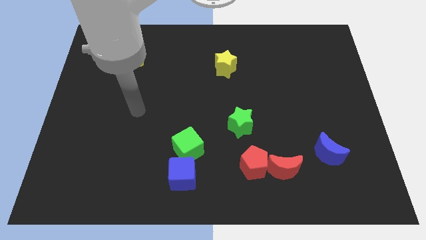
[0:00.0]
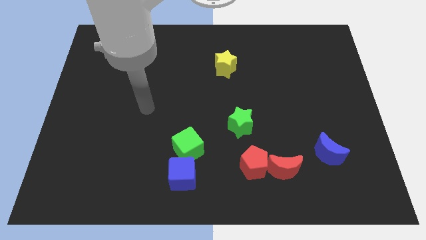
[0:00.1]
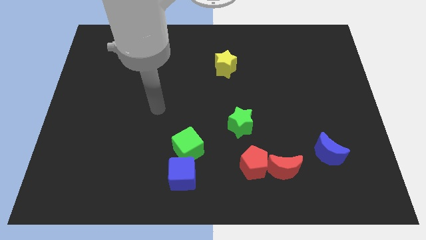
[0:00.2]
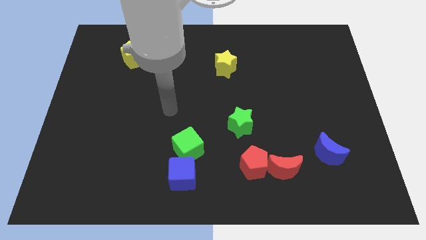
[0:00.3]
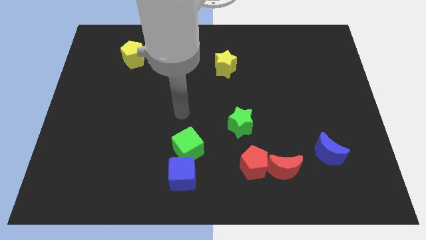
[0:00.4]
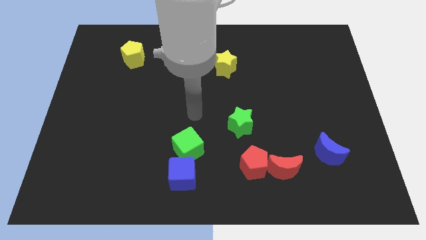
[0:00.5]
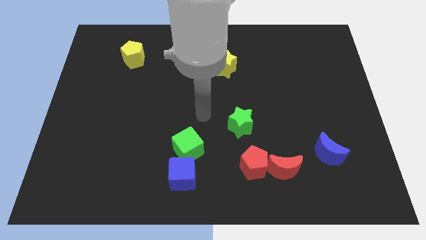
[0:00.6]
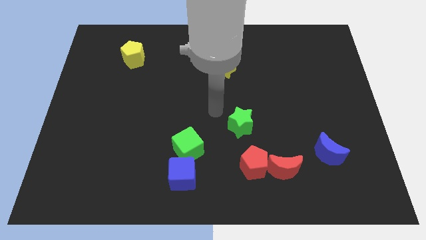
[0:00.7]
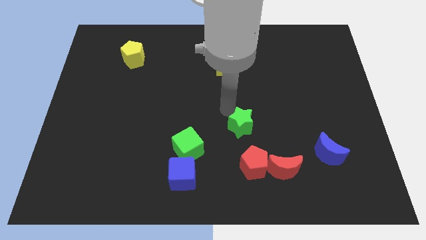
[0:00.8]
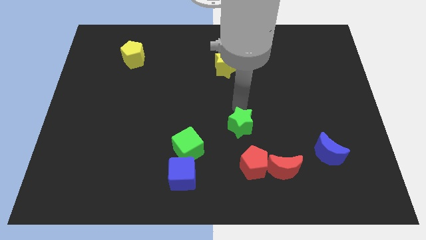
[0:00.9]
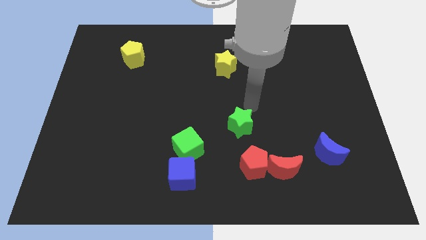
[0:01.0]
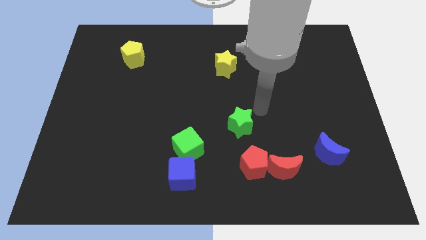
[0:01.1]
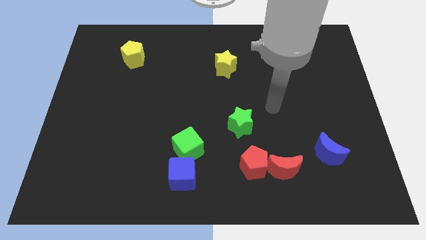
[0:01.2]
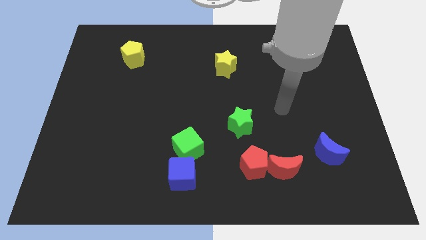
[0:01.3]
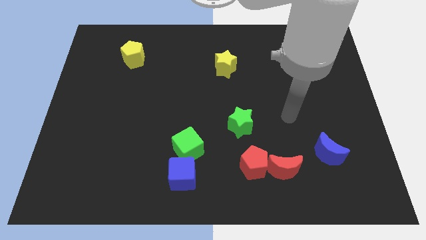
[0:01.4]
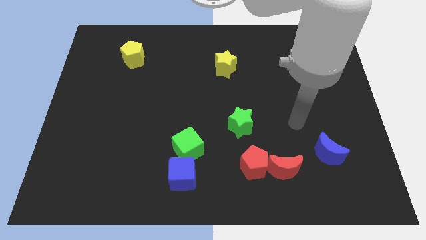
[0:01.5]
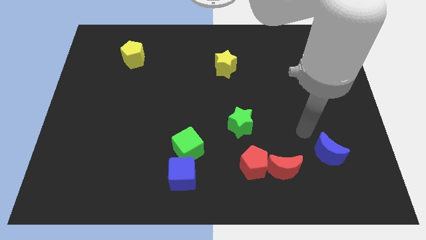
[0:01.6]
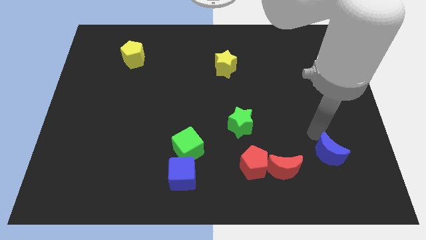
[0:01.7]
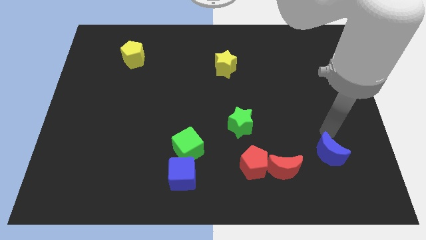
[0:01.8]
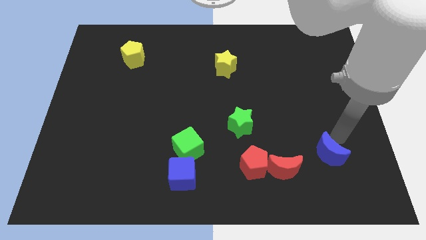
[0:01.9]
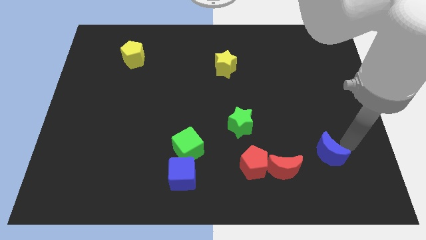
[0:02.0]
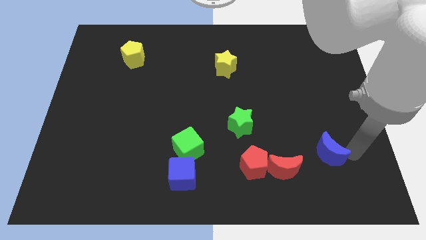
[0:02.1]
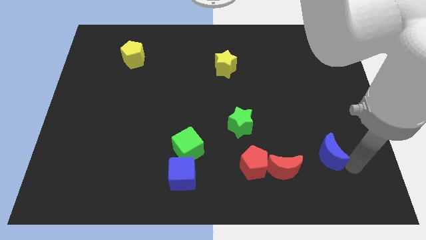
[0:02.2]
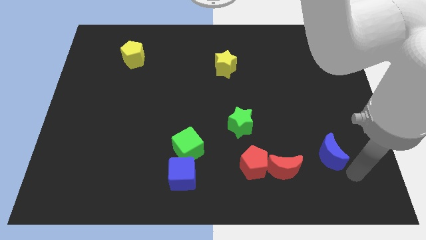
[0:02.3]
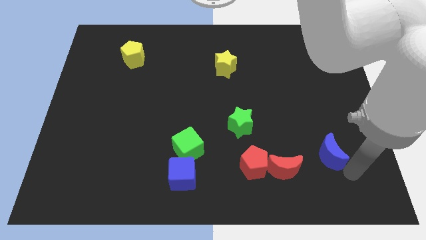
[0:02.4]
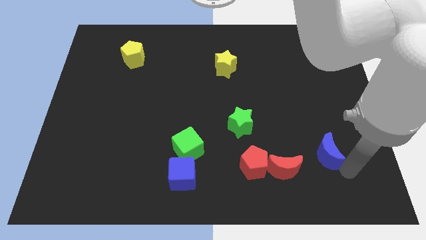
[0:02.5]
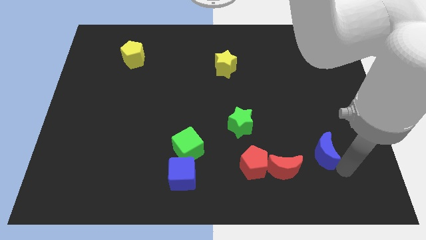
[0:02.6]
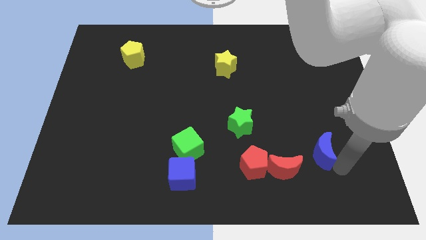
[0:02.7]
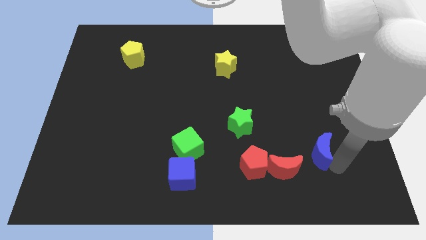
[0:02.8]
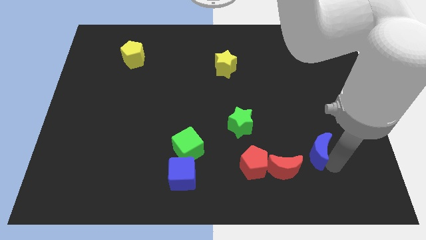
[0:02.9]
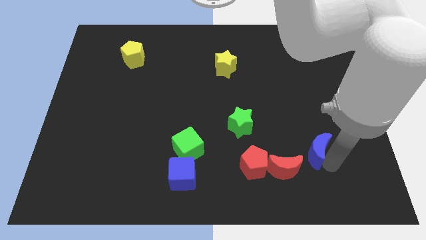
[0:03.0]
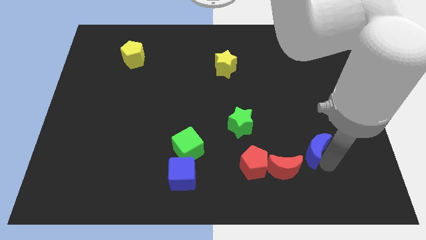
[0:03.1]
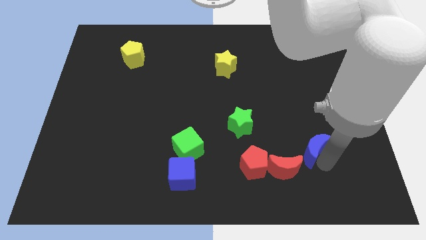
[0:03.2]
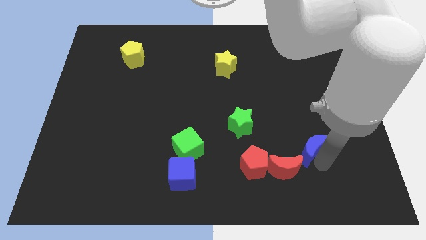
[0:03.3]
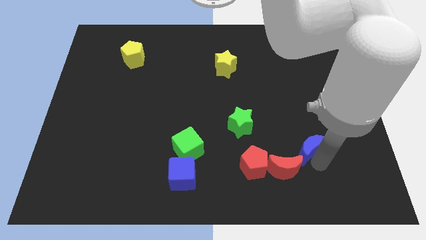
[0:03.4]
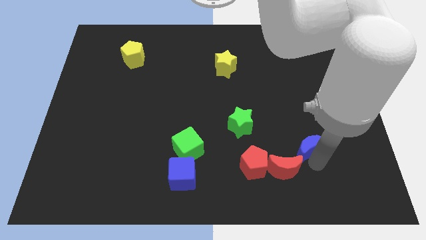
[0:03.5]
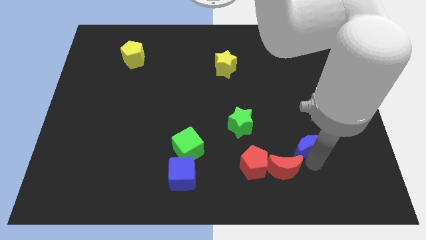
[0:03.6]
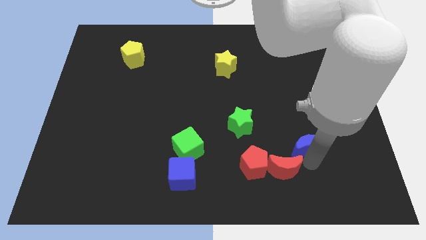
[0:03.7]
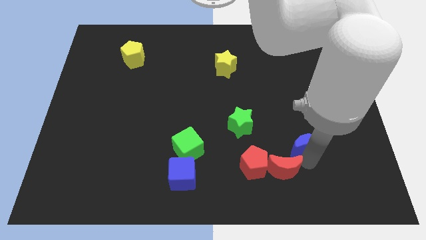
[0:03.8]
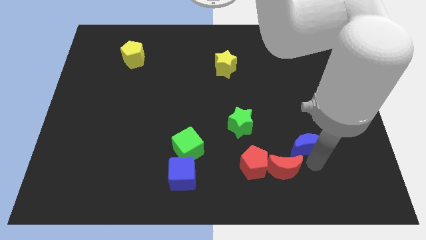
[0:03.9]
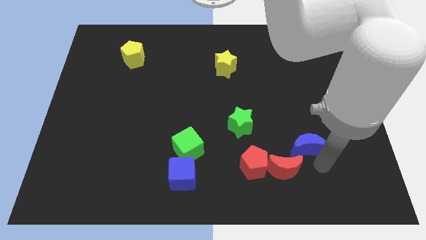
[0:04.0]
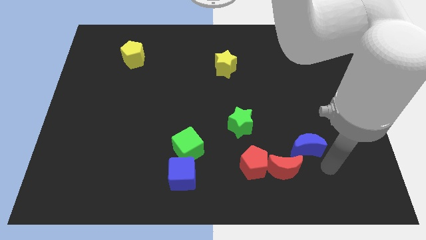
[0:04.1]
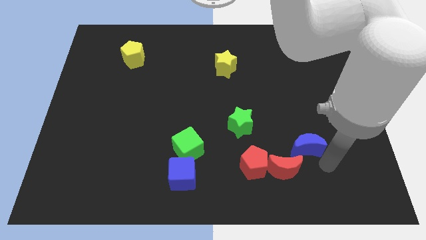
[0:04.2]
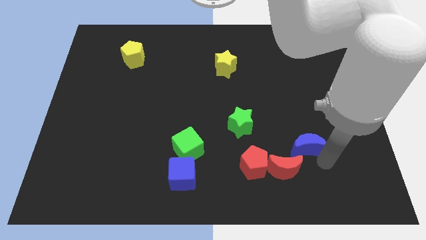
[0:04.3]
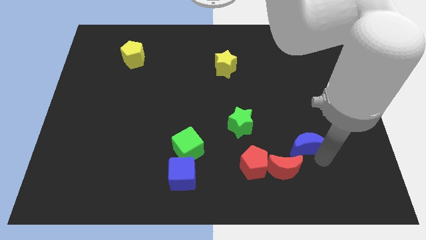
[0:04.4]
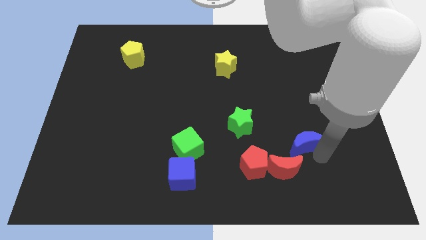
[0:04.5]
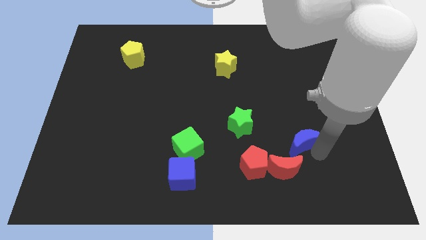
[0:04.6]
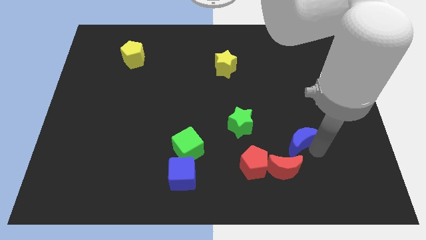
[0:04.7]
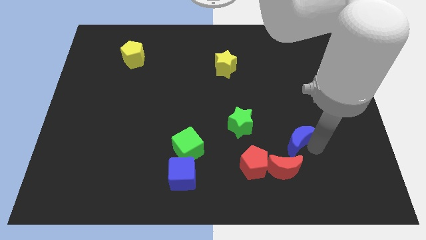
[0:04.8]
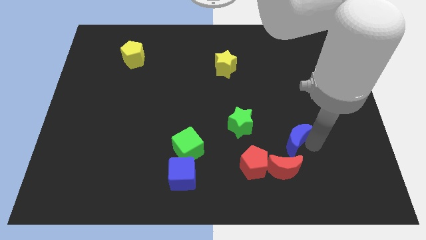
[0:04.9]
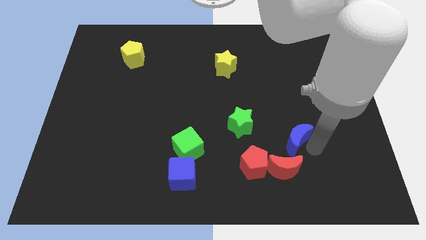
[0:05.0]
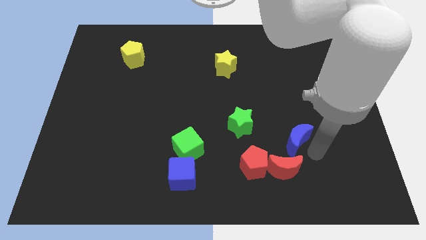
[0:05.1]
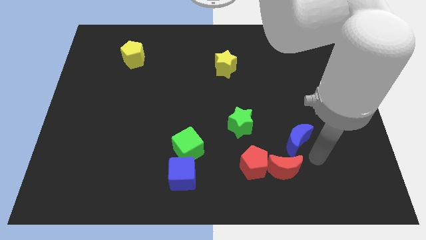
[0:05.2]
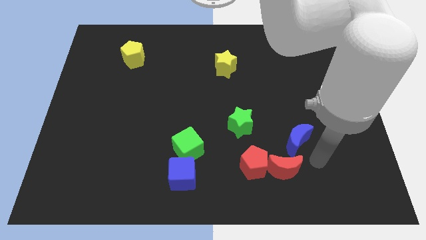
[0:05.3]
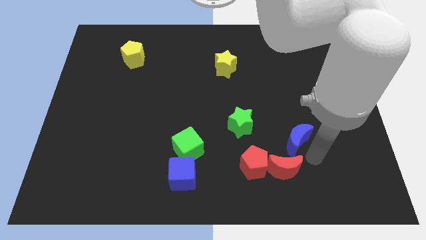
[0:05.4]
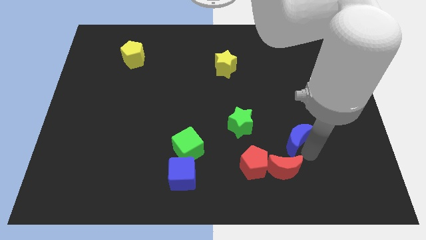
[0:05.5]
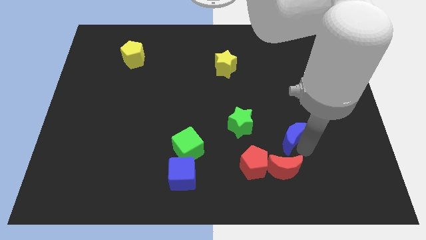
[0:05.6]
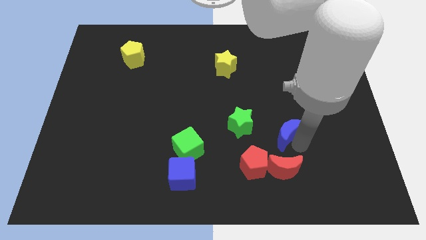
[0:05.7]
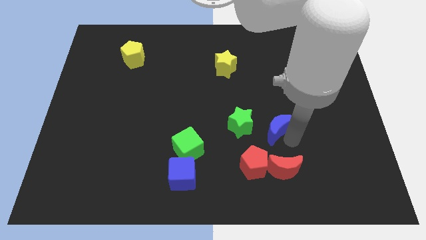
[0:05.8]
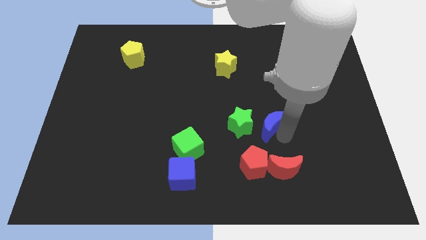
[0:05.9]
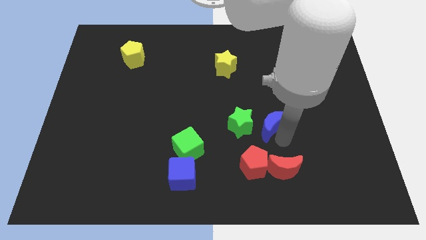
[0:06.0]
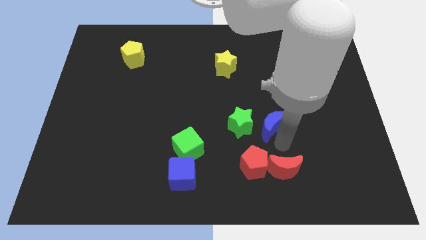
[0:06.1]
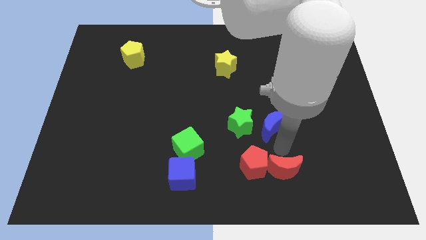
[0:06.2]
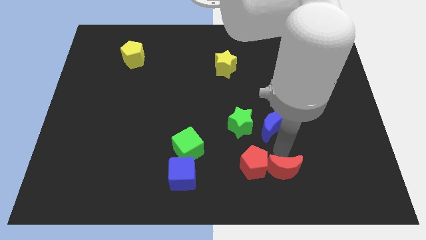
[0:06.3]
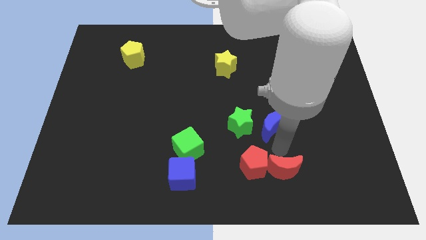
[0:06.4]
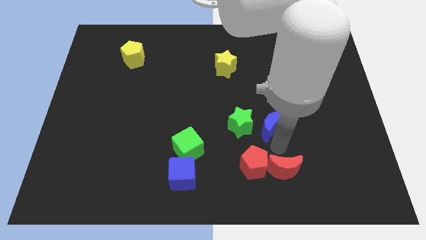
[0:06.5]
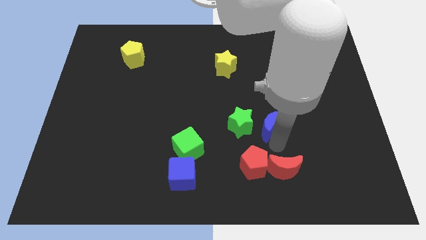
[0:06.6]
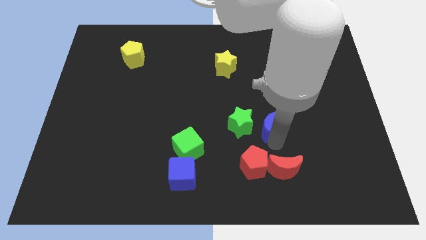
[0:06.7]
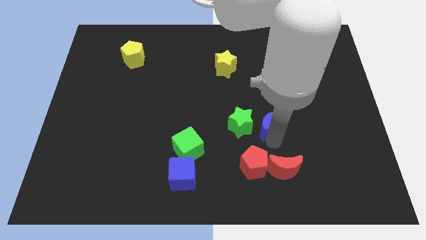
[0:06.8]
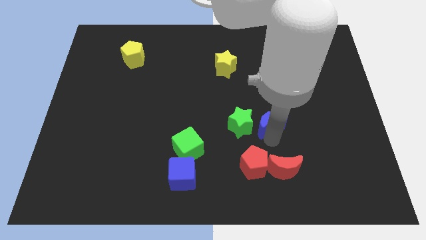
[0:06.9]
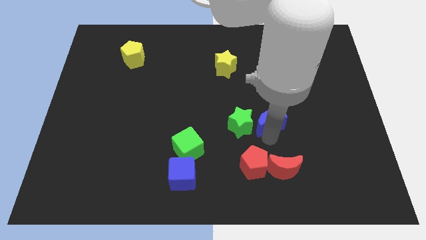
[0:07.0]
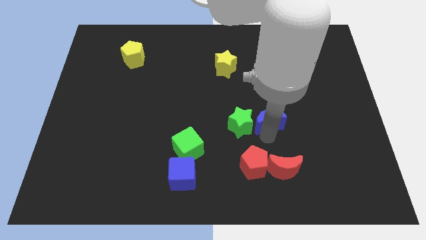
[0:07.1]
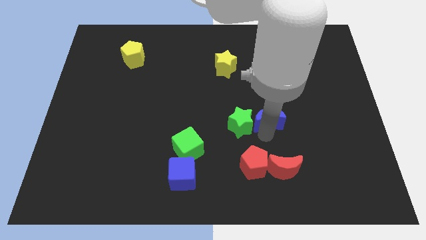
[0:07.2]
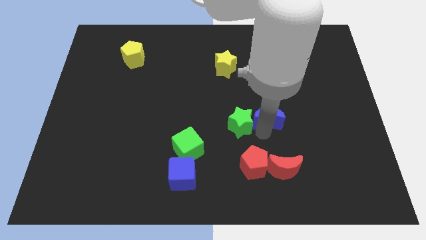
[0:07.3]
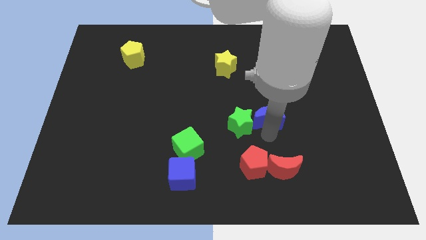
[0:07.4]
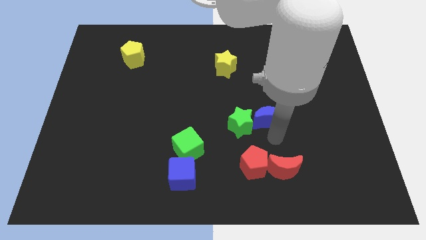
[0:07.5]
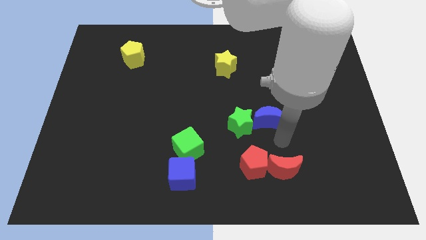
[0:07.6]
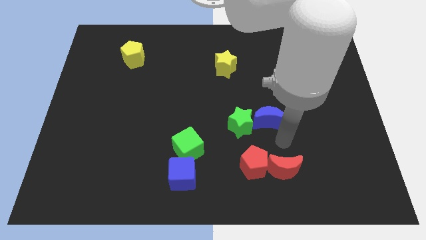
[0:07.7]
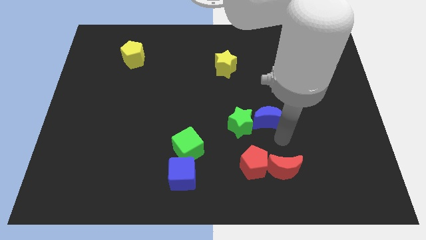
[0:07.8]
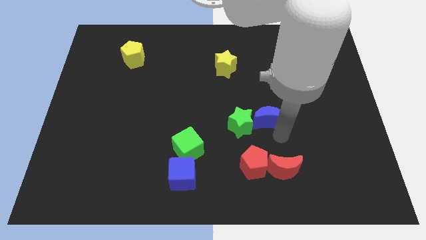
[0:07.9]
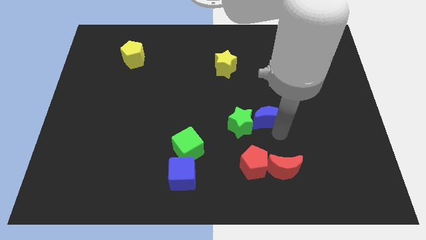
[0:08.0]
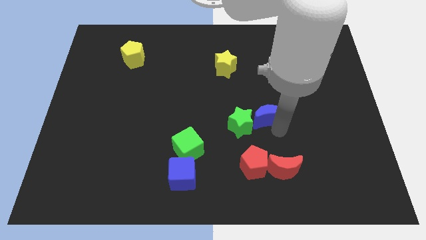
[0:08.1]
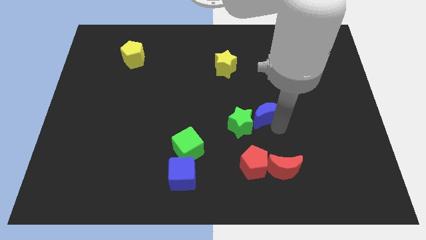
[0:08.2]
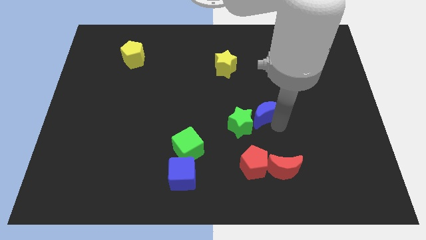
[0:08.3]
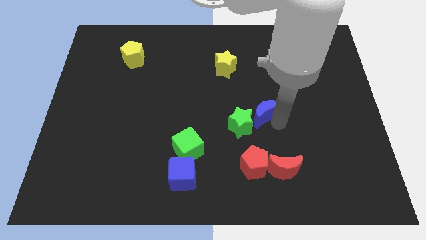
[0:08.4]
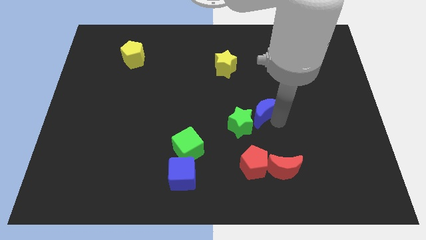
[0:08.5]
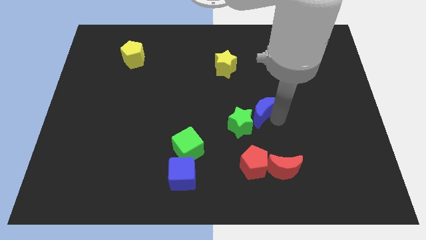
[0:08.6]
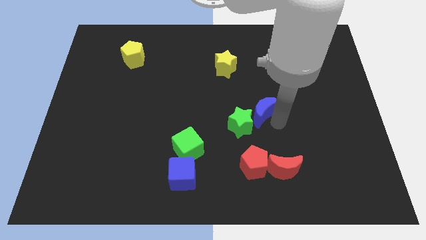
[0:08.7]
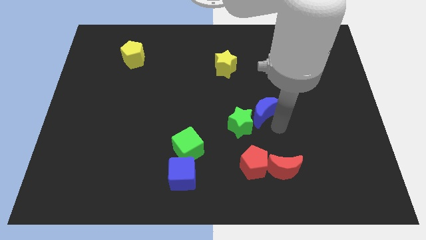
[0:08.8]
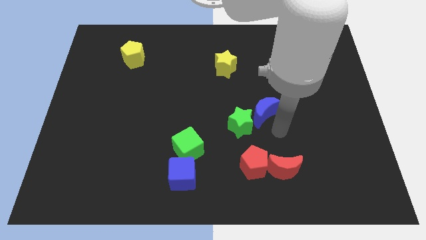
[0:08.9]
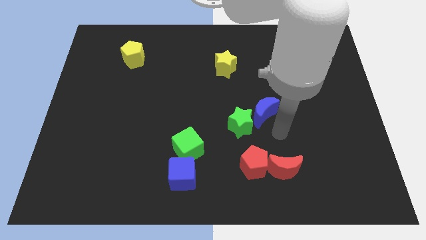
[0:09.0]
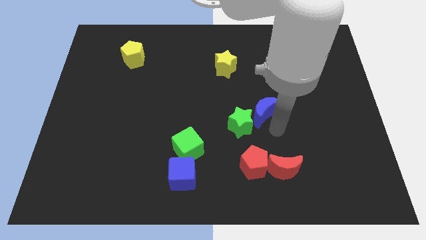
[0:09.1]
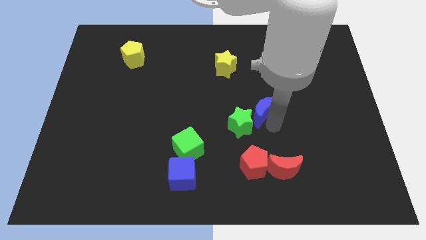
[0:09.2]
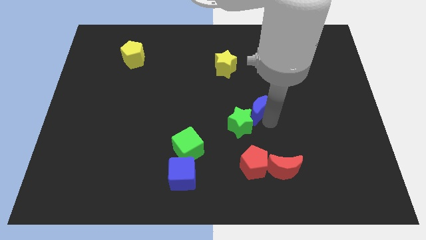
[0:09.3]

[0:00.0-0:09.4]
move the blue moon to the top of the green star
